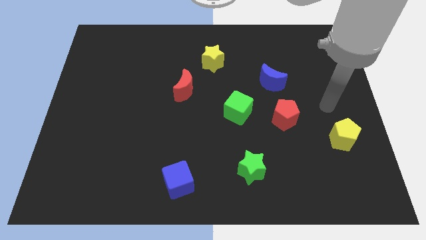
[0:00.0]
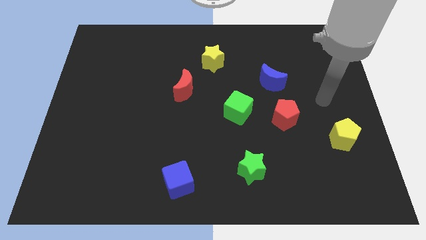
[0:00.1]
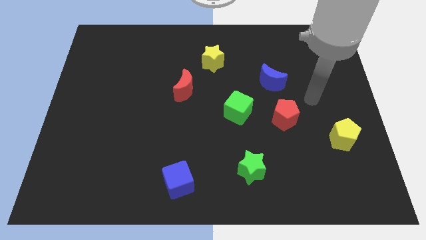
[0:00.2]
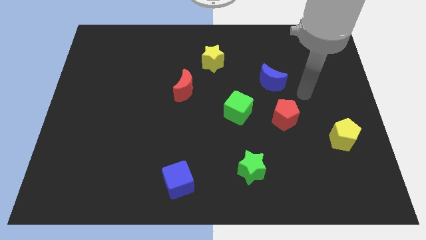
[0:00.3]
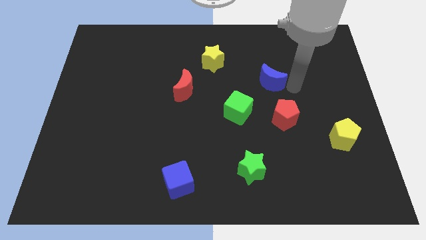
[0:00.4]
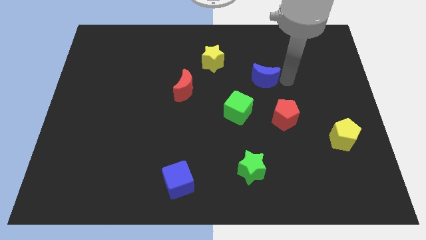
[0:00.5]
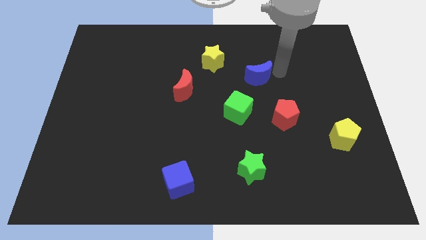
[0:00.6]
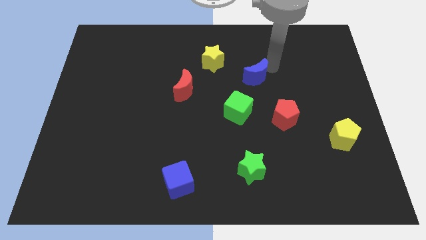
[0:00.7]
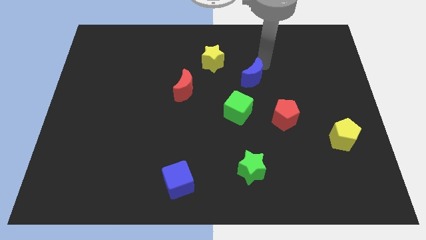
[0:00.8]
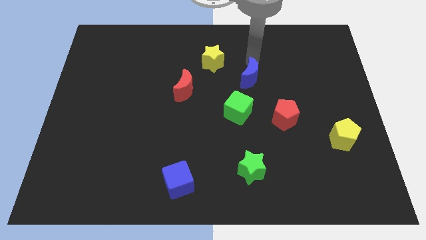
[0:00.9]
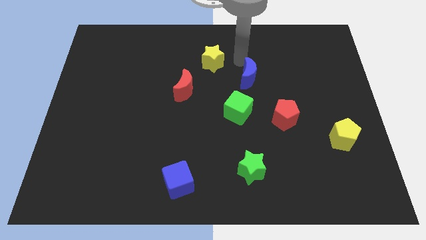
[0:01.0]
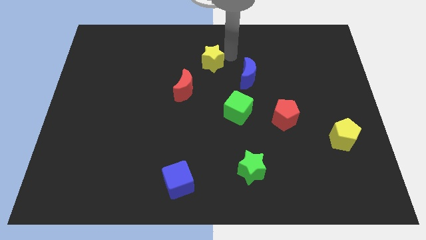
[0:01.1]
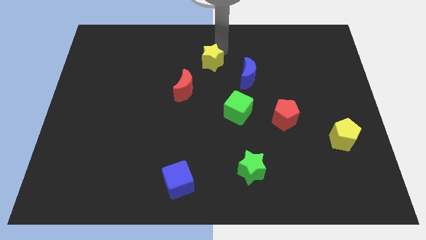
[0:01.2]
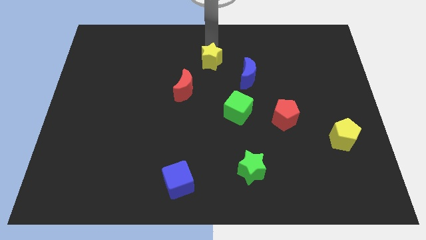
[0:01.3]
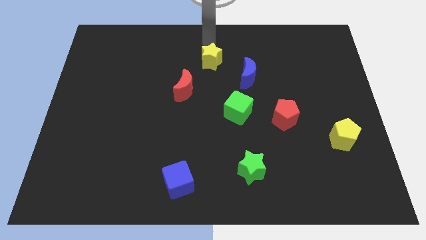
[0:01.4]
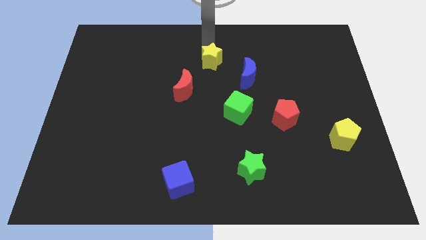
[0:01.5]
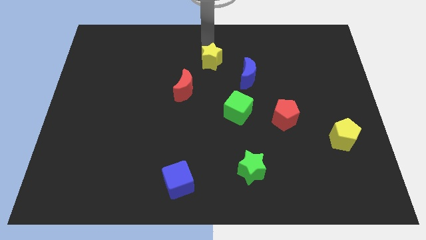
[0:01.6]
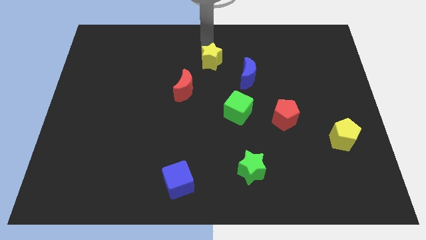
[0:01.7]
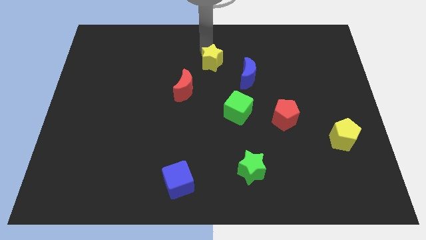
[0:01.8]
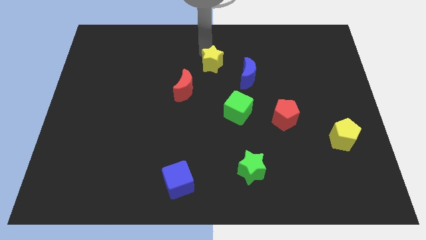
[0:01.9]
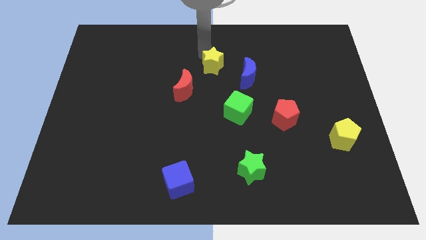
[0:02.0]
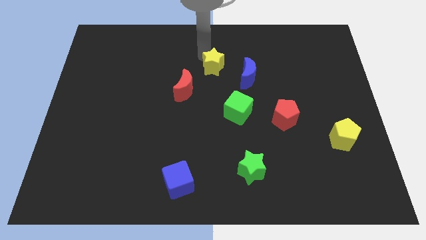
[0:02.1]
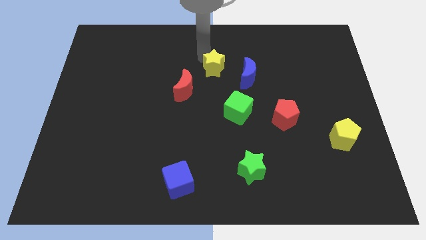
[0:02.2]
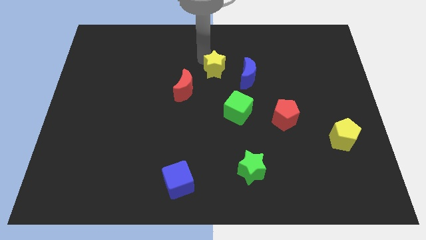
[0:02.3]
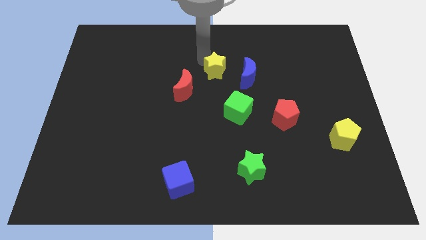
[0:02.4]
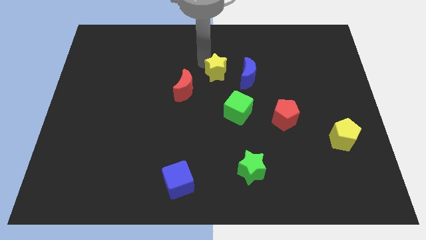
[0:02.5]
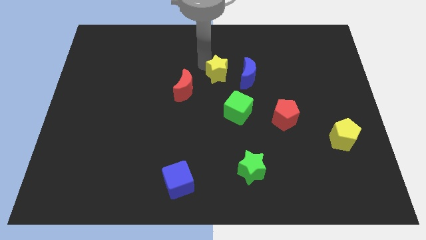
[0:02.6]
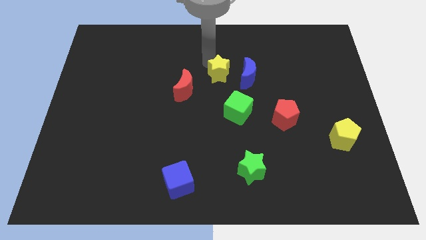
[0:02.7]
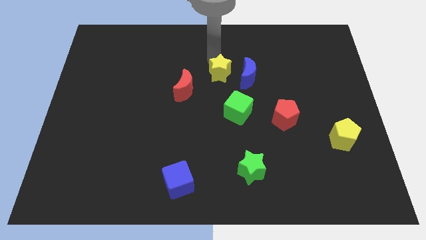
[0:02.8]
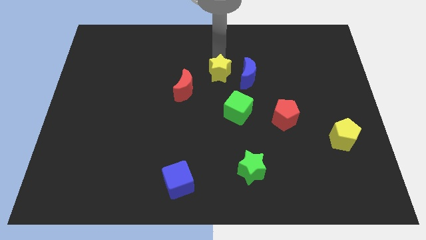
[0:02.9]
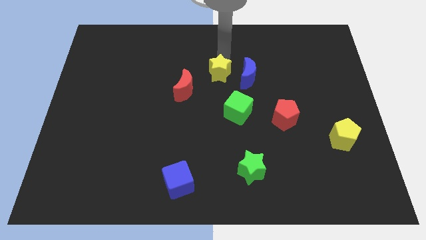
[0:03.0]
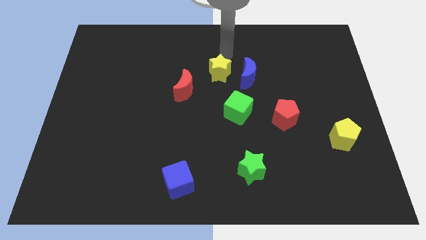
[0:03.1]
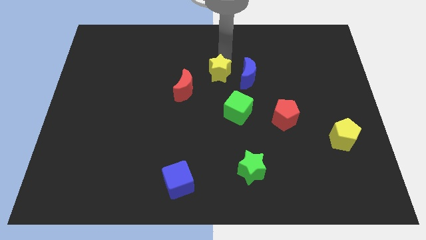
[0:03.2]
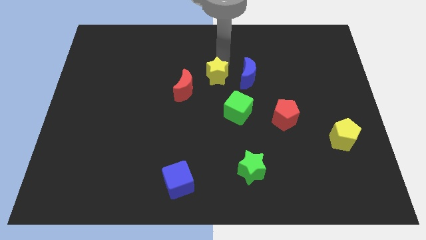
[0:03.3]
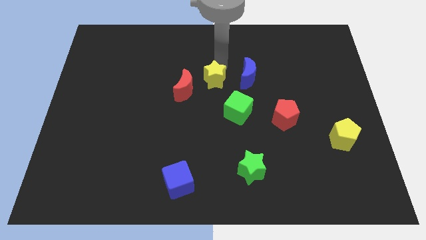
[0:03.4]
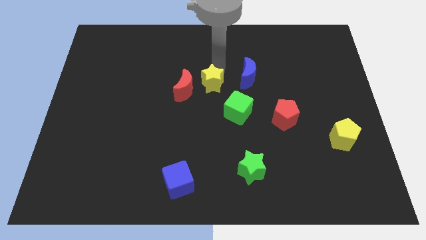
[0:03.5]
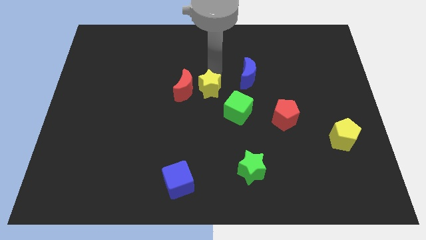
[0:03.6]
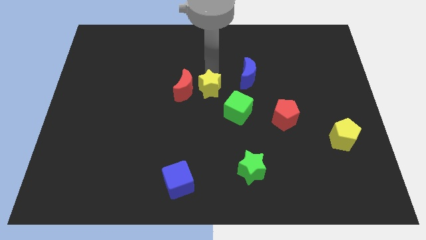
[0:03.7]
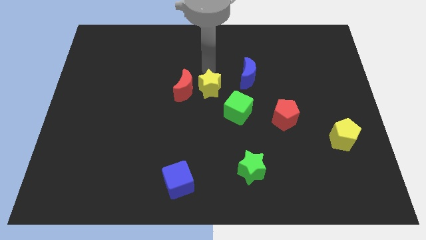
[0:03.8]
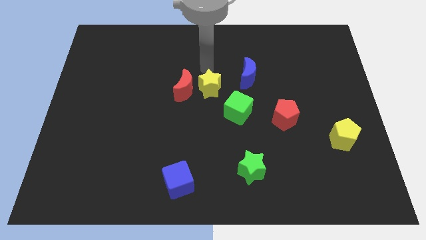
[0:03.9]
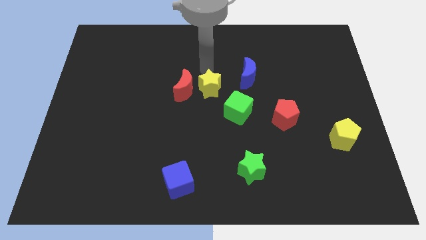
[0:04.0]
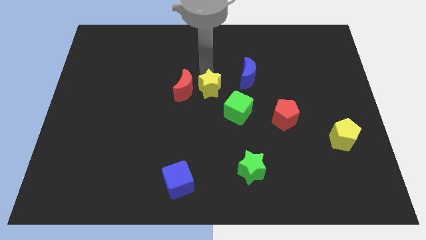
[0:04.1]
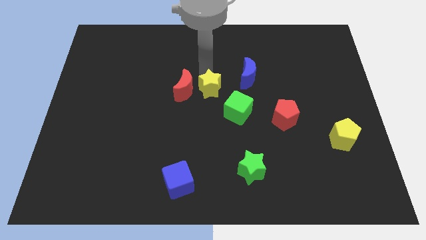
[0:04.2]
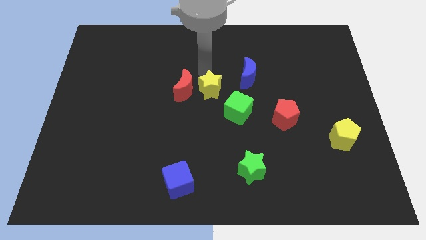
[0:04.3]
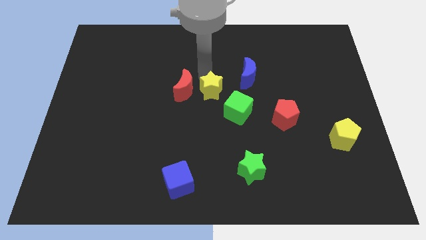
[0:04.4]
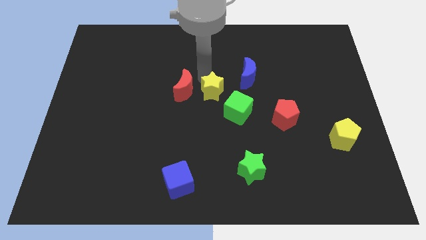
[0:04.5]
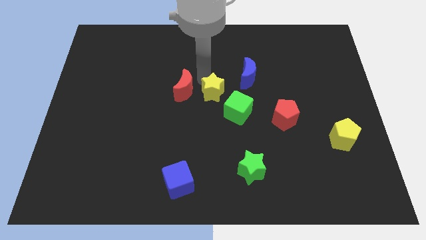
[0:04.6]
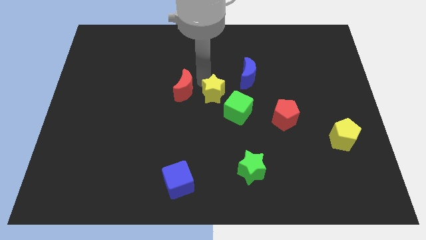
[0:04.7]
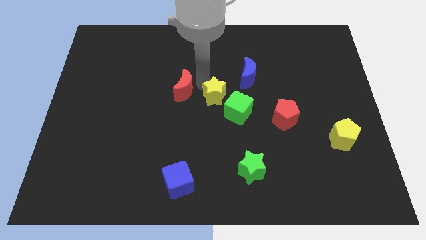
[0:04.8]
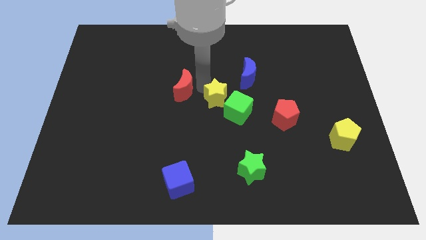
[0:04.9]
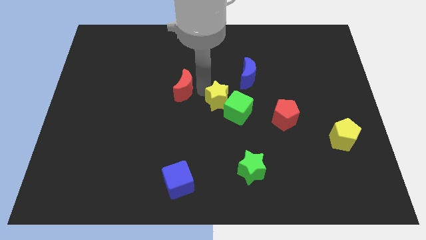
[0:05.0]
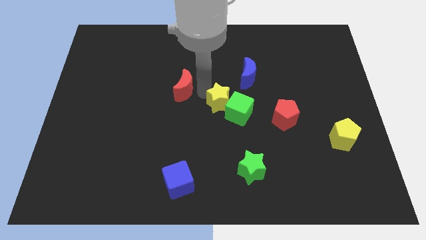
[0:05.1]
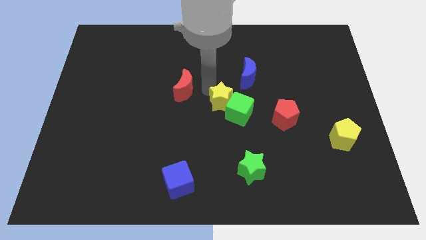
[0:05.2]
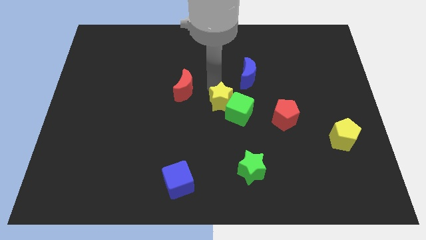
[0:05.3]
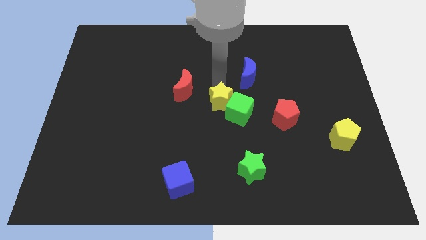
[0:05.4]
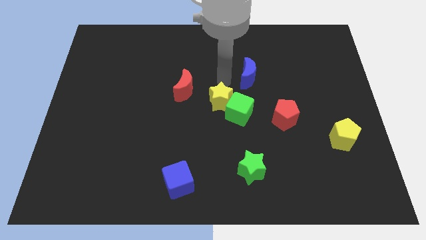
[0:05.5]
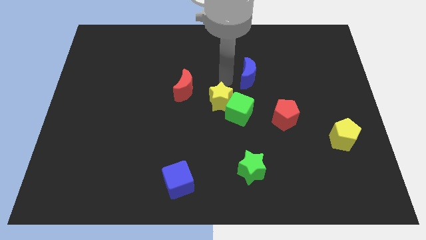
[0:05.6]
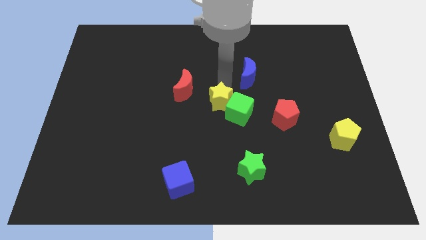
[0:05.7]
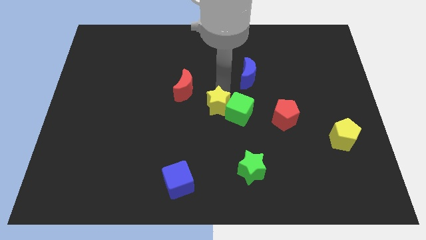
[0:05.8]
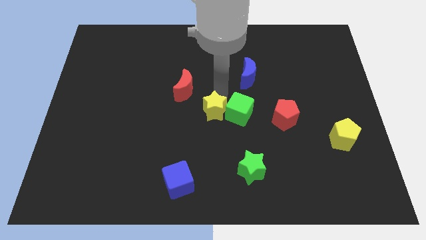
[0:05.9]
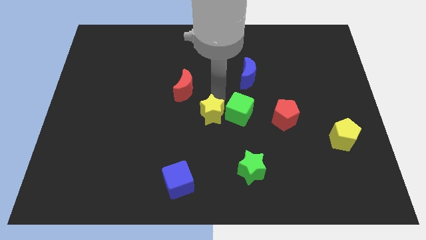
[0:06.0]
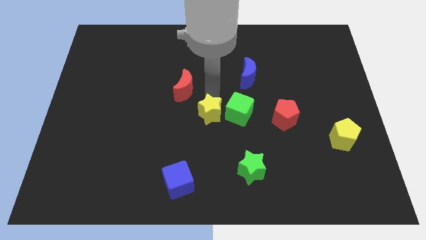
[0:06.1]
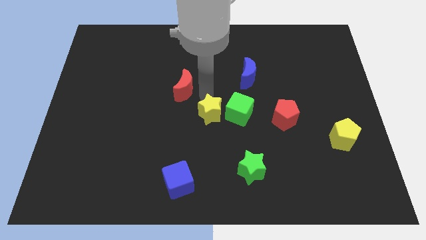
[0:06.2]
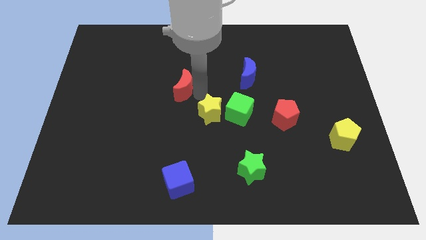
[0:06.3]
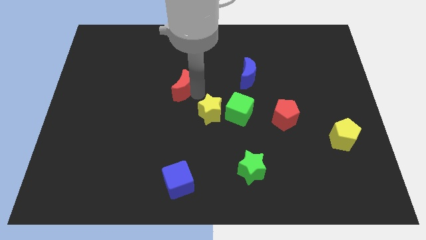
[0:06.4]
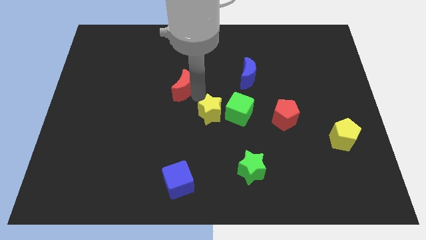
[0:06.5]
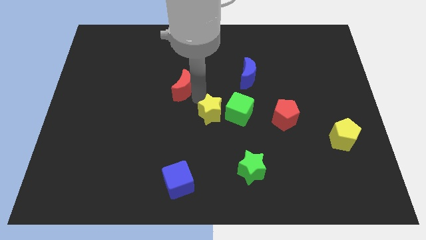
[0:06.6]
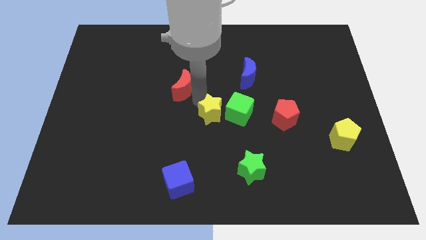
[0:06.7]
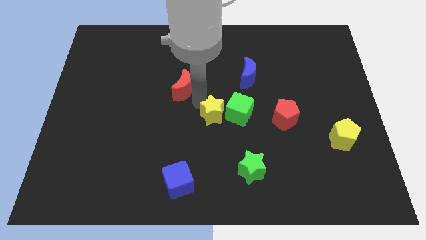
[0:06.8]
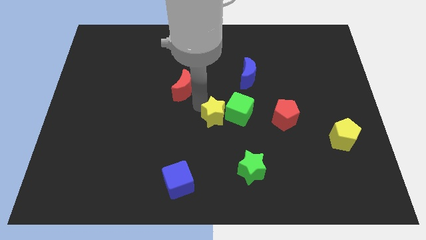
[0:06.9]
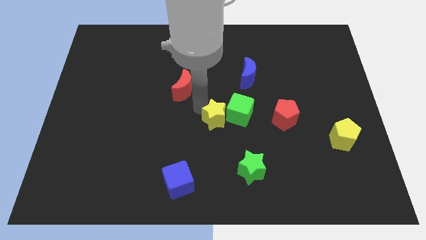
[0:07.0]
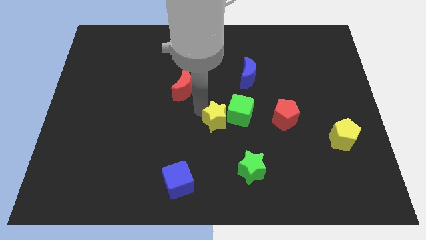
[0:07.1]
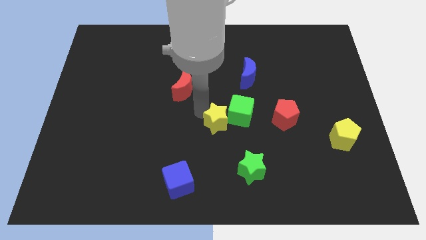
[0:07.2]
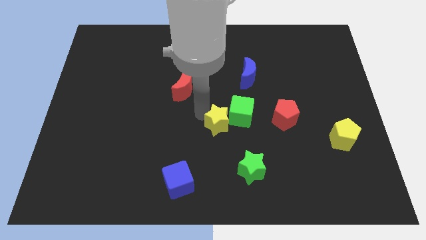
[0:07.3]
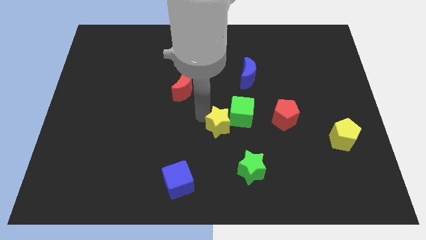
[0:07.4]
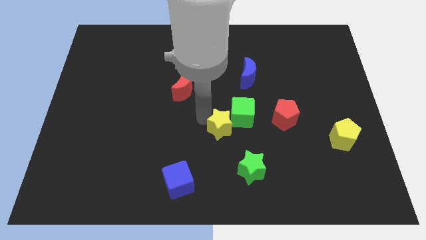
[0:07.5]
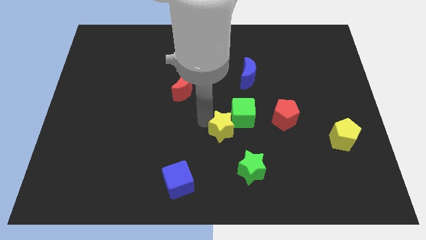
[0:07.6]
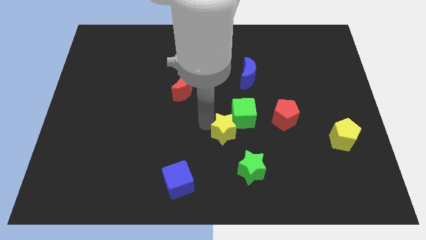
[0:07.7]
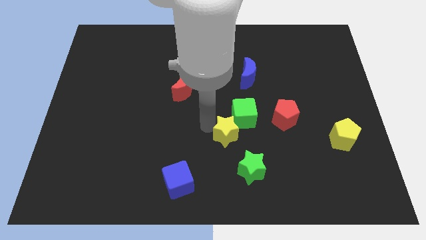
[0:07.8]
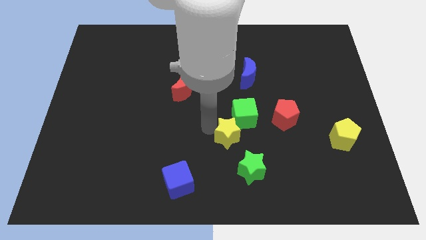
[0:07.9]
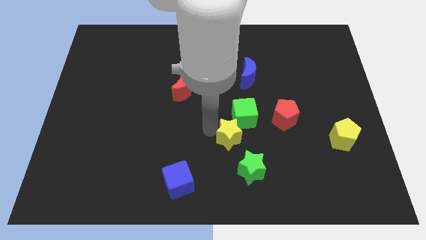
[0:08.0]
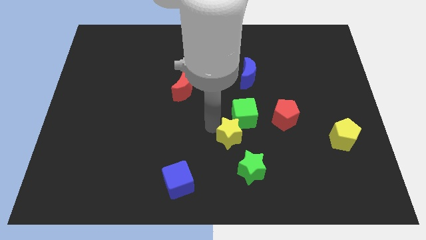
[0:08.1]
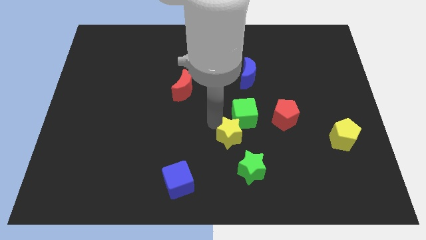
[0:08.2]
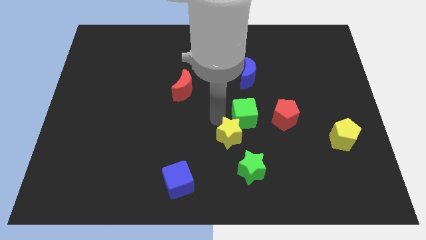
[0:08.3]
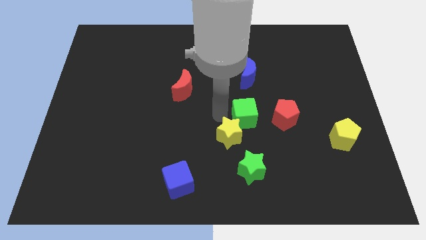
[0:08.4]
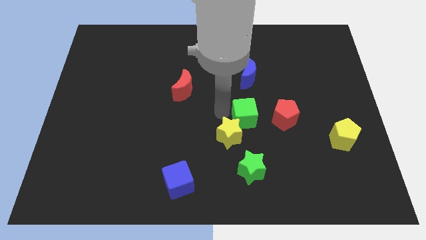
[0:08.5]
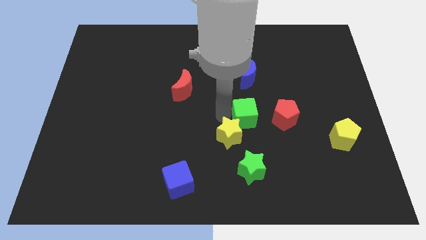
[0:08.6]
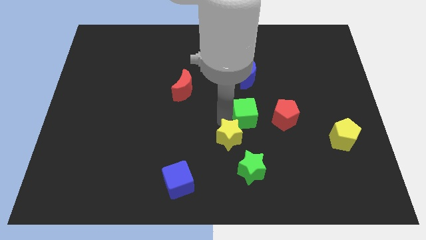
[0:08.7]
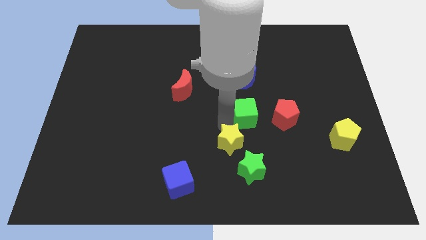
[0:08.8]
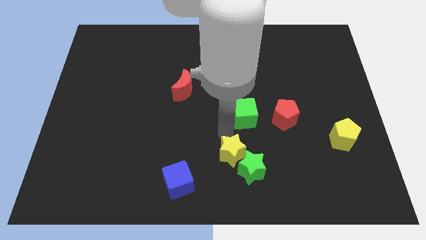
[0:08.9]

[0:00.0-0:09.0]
move the yellow star towards the green star
